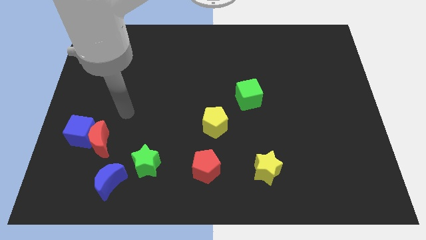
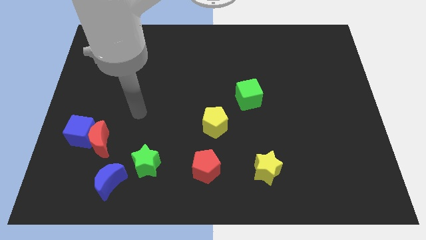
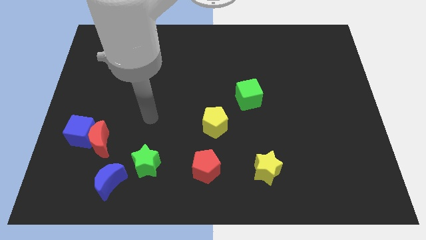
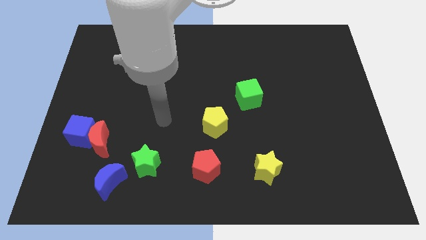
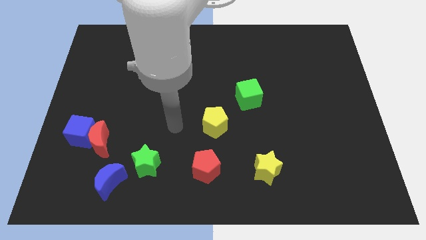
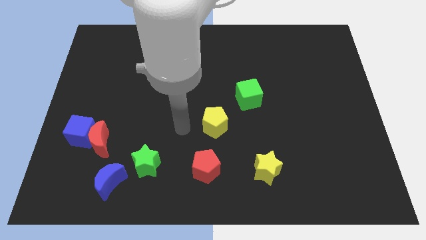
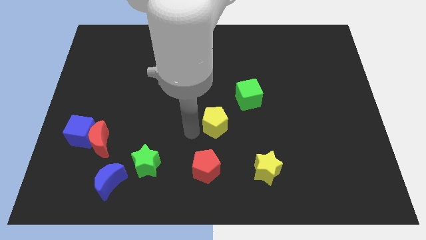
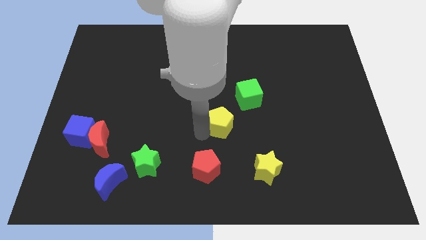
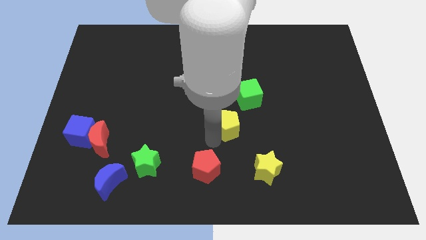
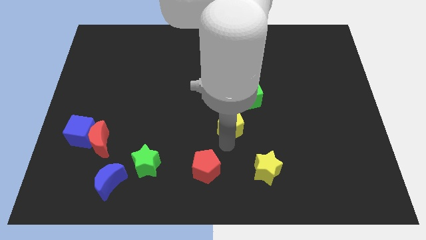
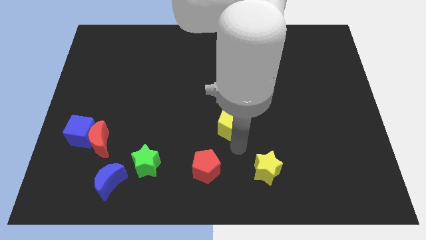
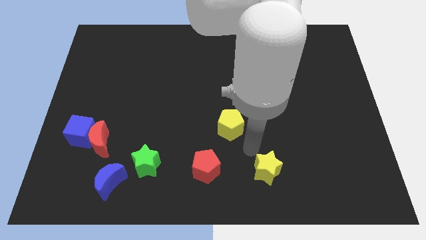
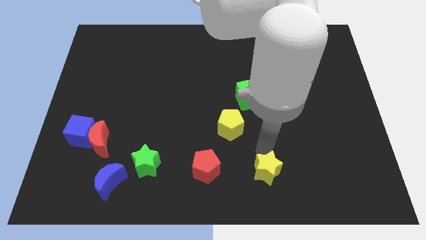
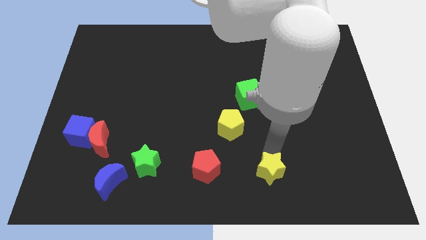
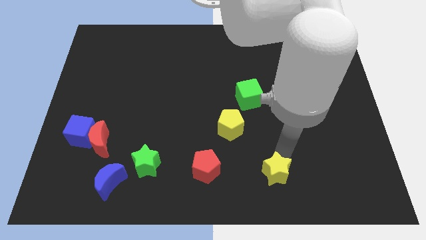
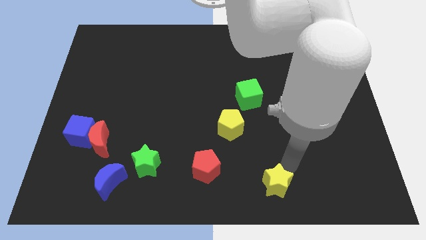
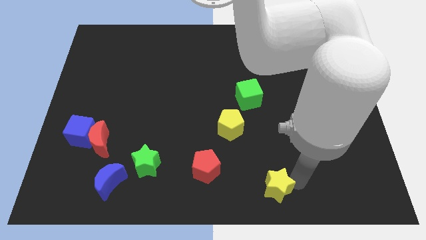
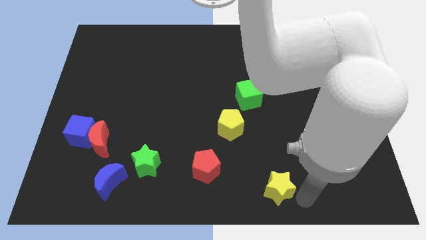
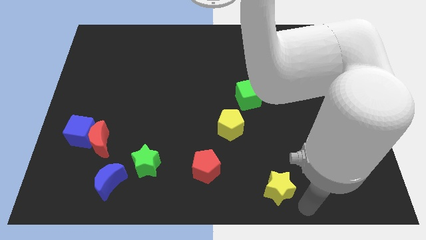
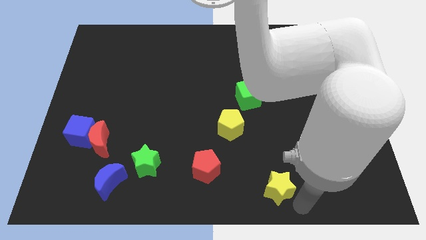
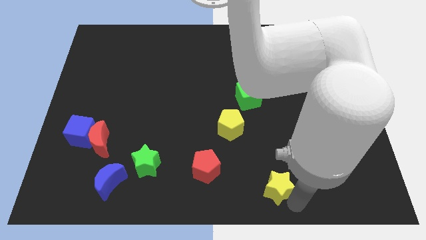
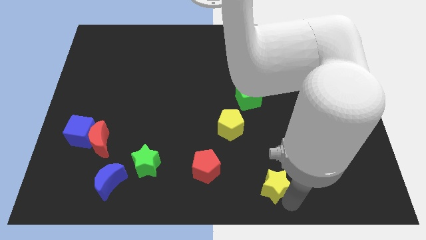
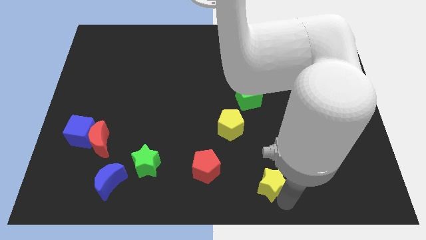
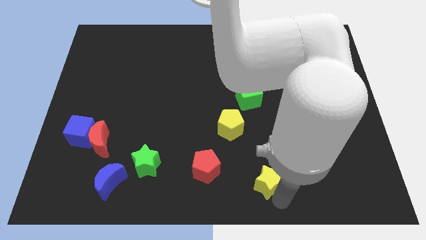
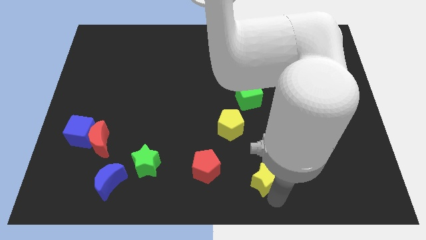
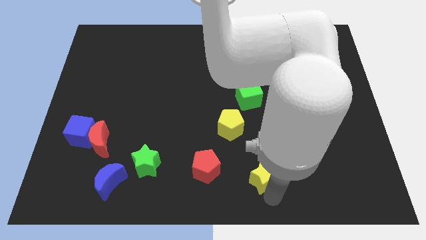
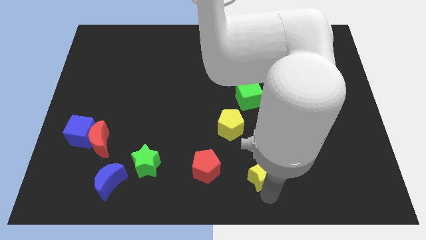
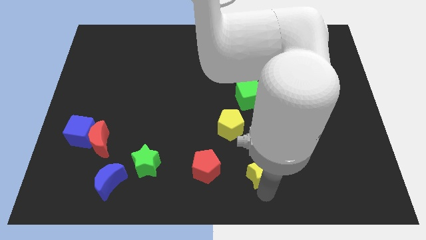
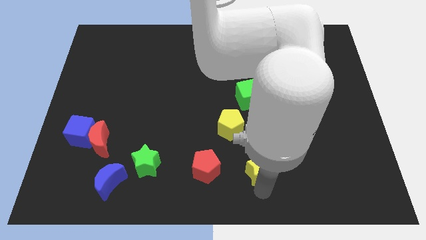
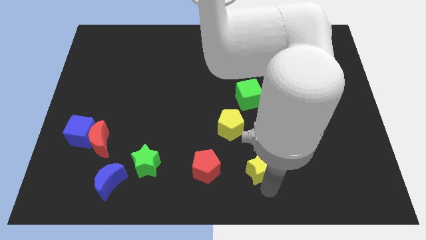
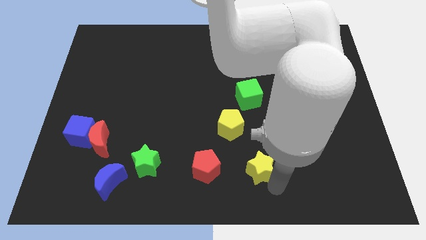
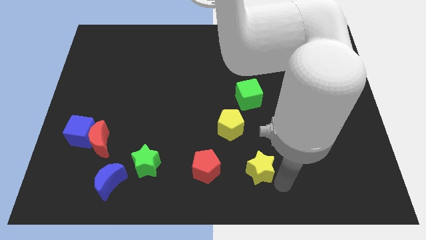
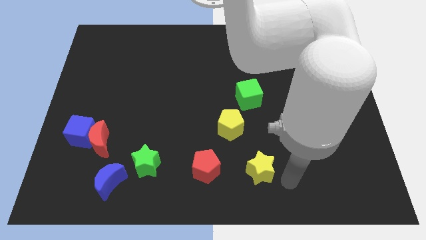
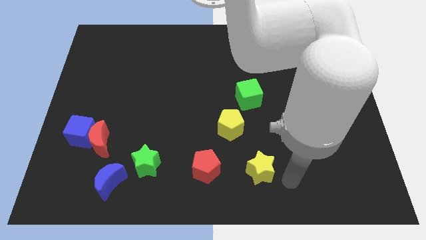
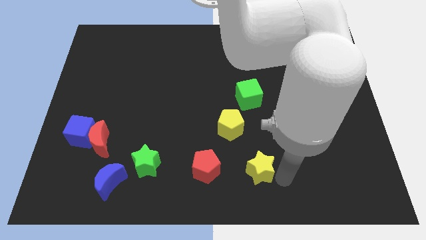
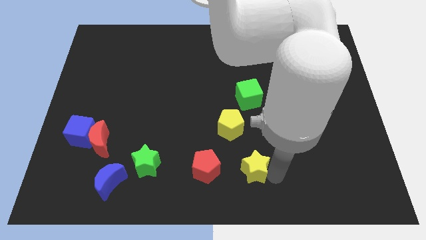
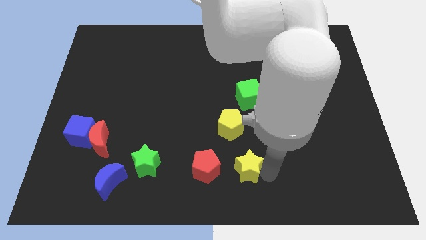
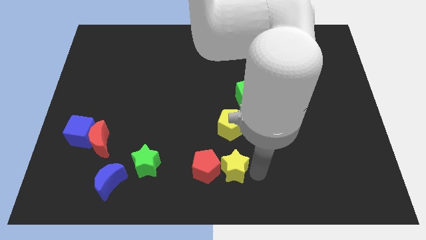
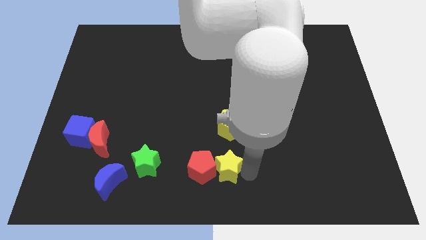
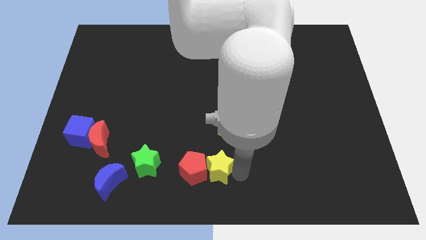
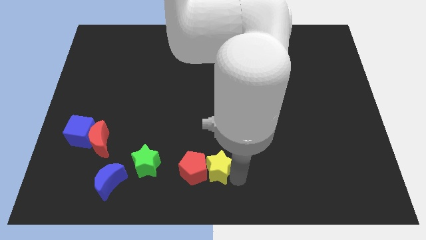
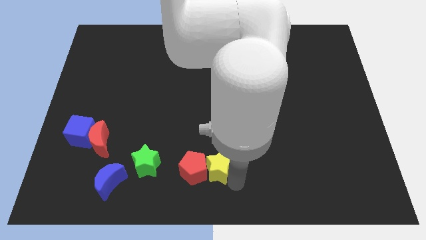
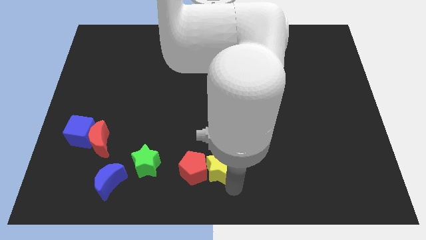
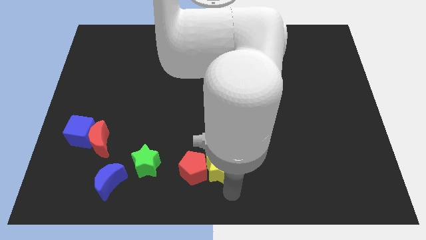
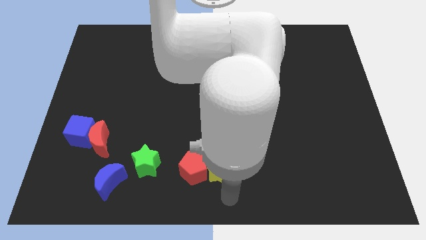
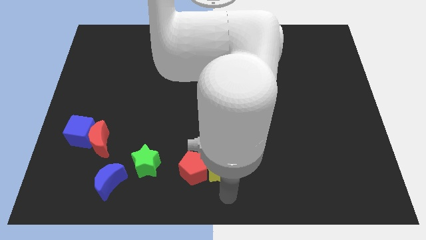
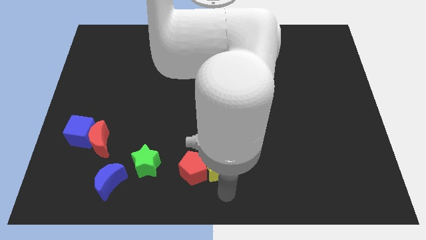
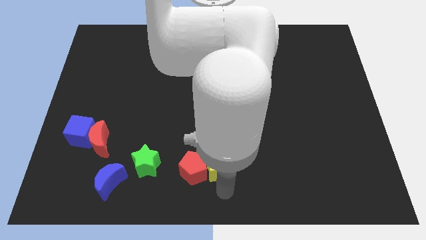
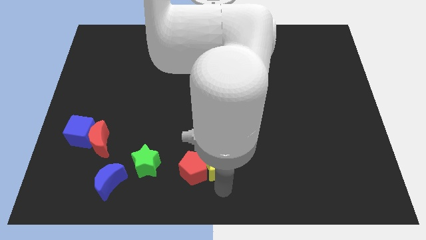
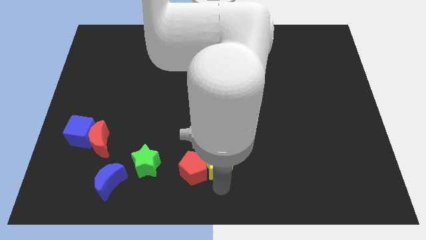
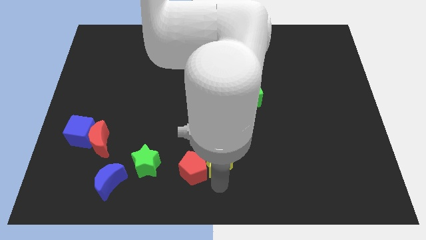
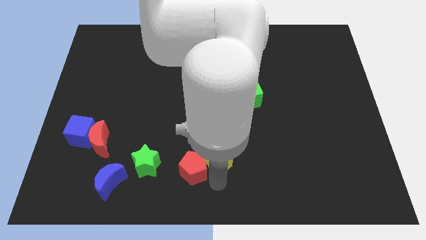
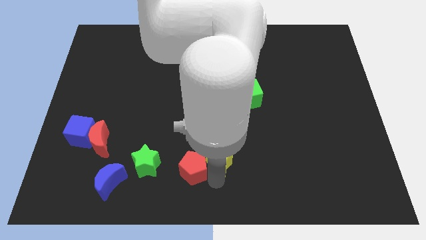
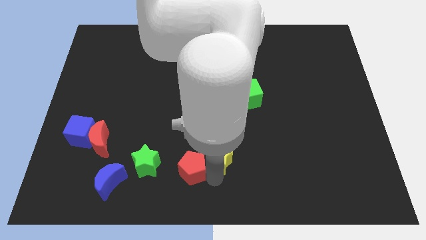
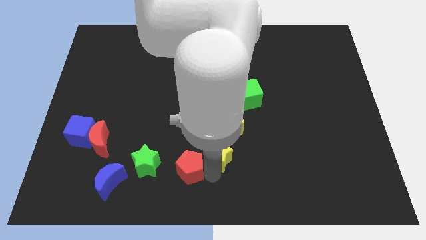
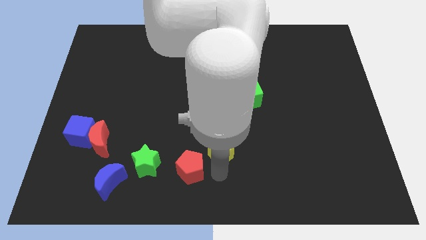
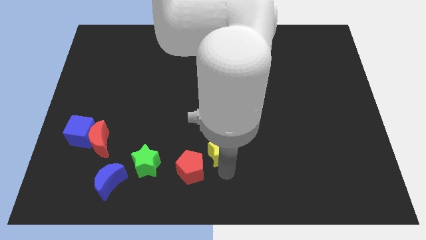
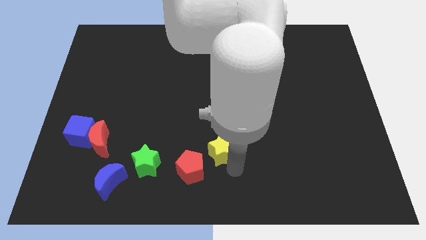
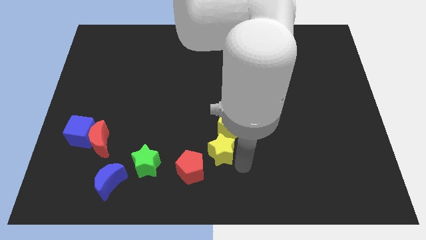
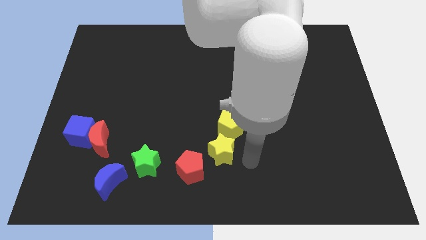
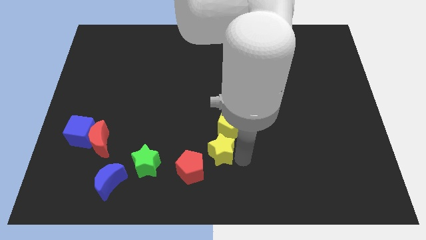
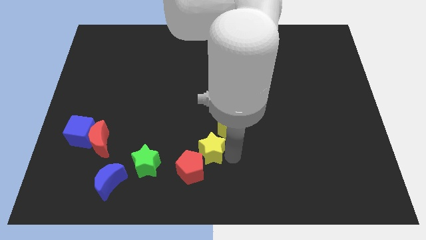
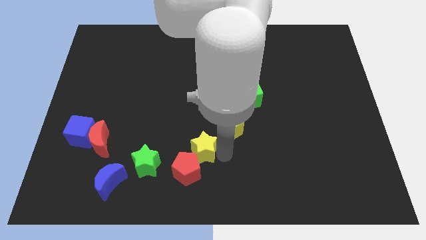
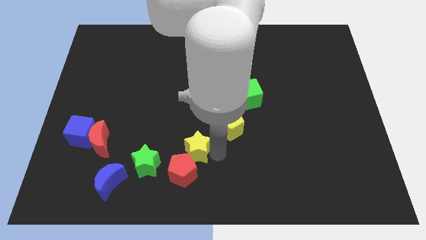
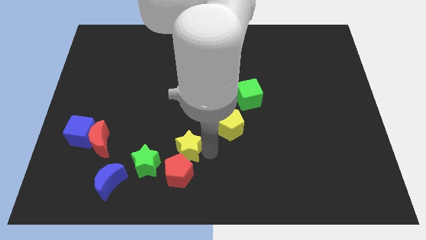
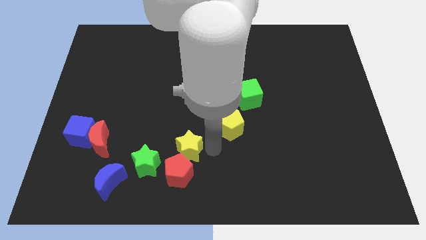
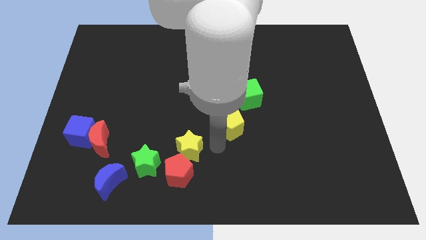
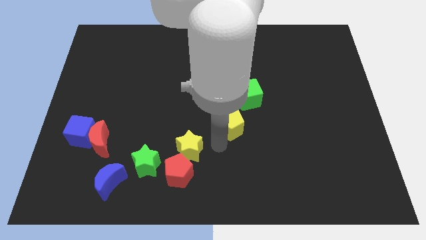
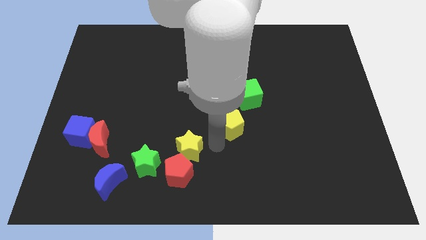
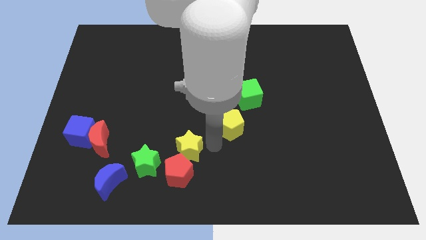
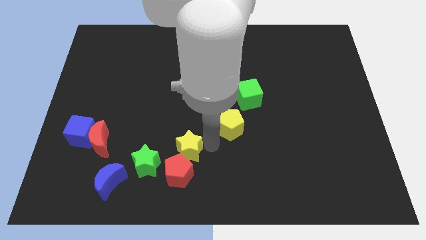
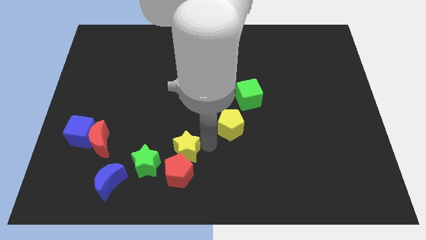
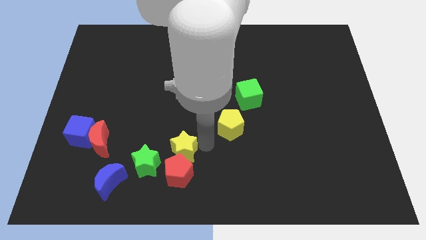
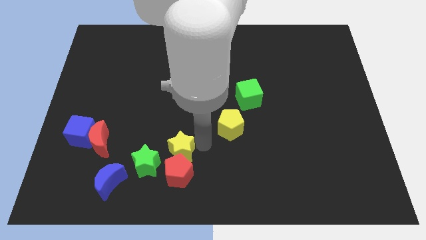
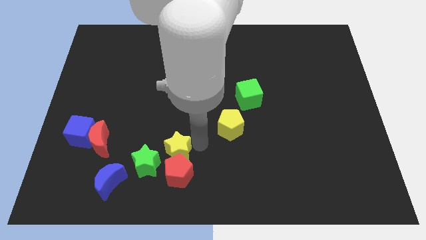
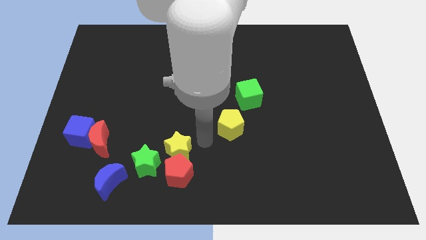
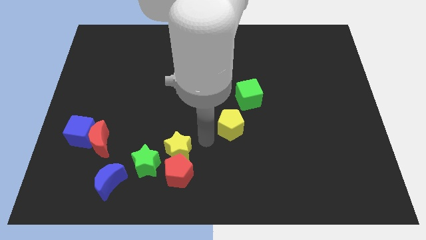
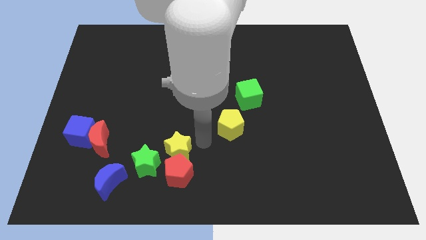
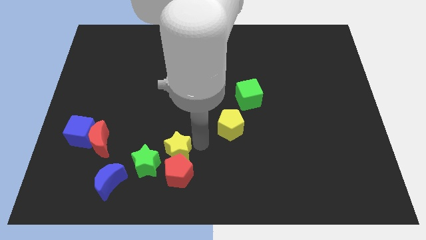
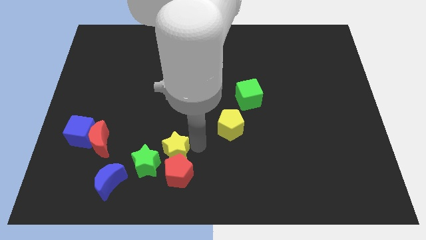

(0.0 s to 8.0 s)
slide the yellow star close to the green star
